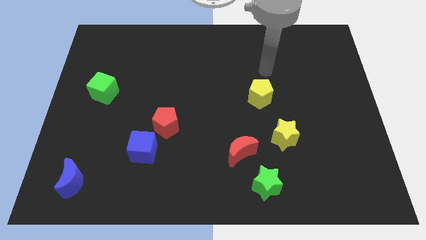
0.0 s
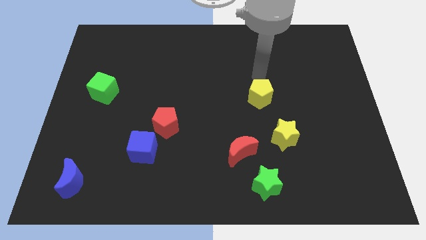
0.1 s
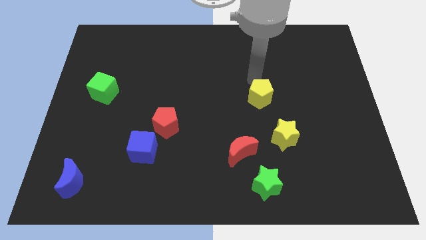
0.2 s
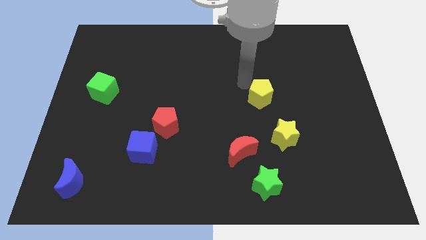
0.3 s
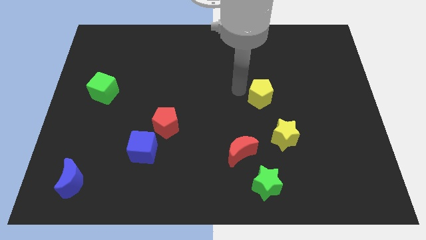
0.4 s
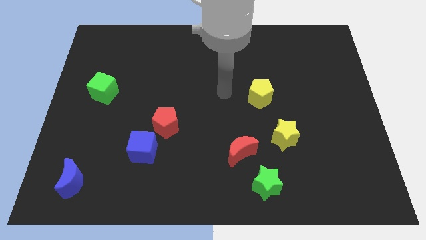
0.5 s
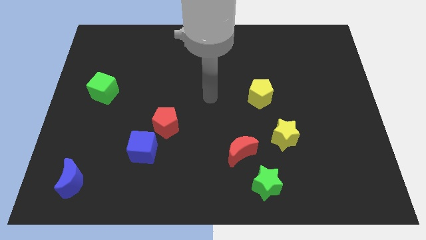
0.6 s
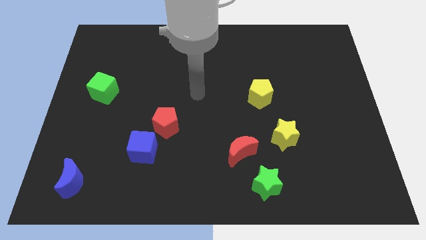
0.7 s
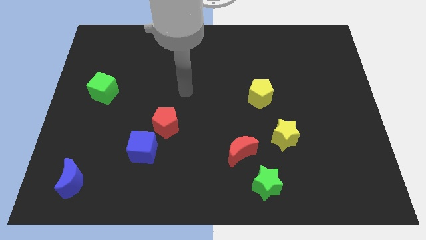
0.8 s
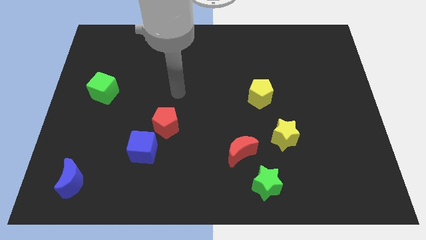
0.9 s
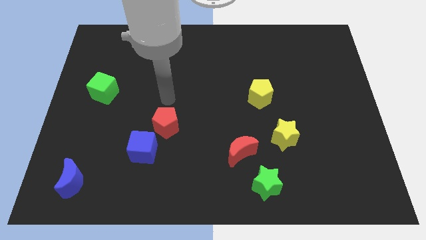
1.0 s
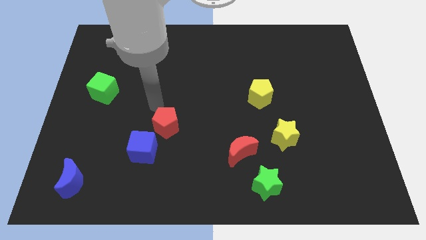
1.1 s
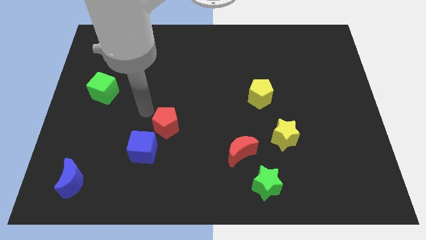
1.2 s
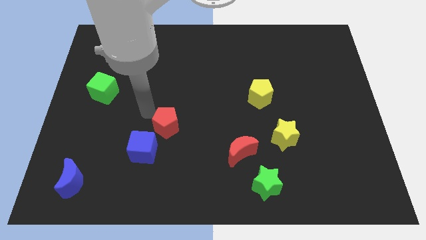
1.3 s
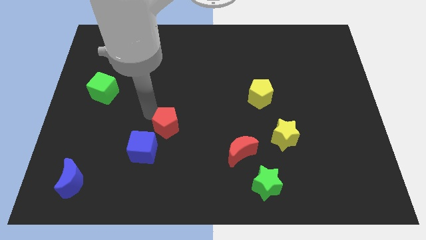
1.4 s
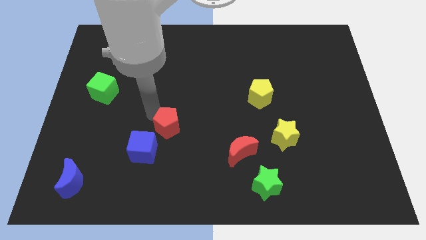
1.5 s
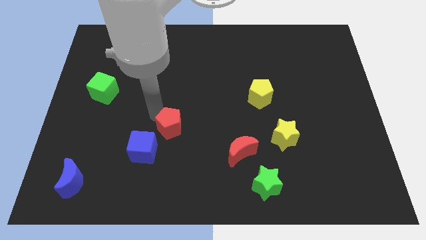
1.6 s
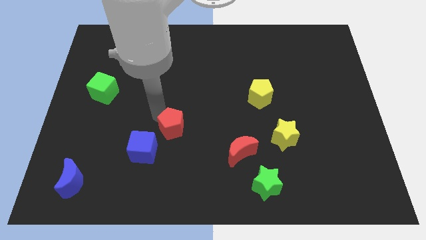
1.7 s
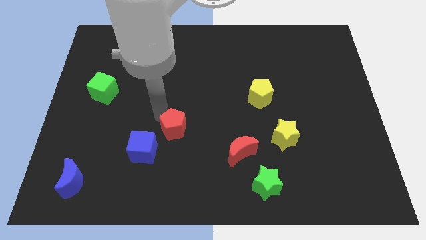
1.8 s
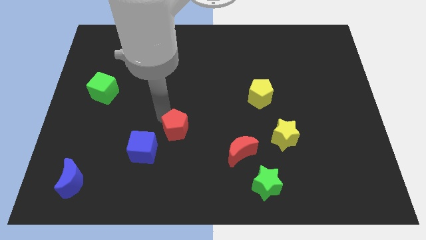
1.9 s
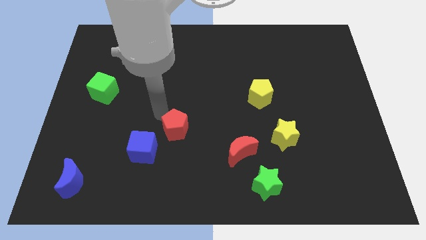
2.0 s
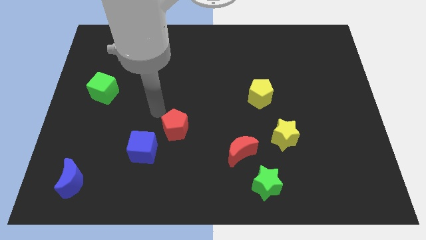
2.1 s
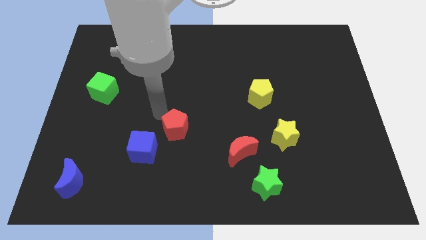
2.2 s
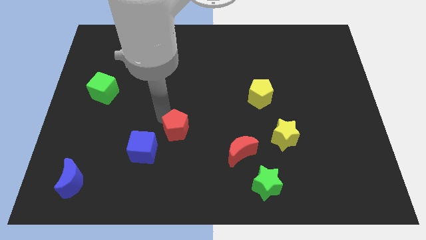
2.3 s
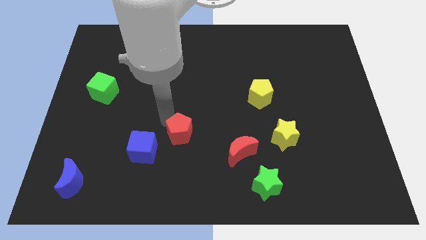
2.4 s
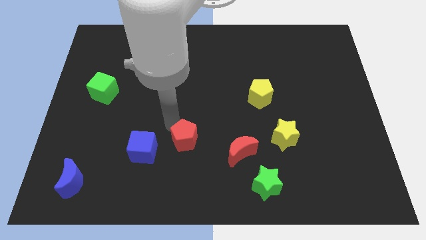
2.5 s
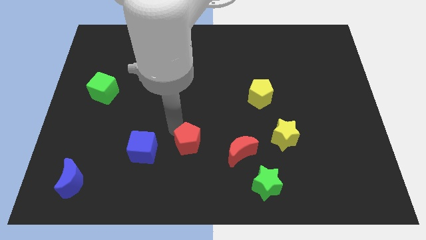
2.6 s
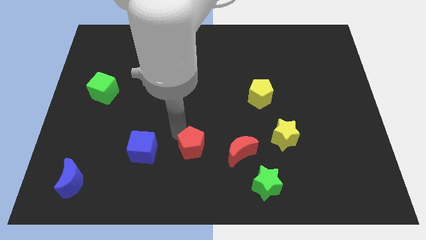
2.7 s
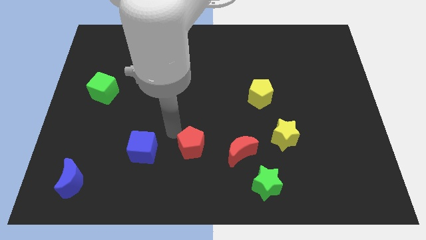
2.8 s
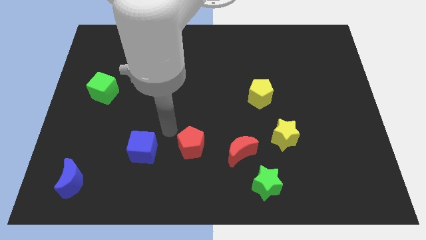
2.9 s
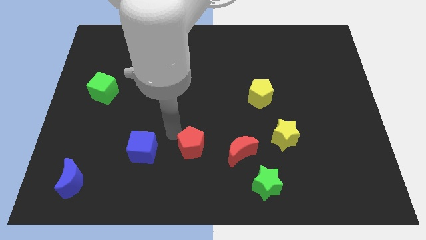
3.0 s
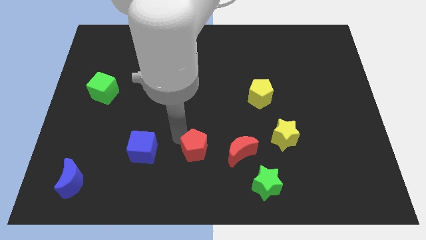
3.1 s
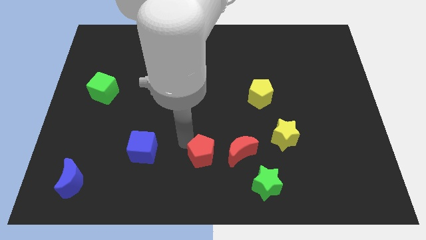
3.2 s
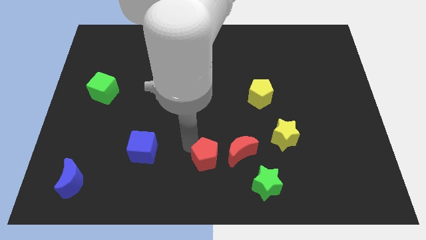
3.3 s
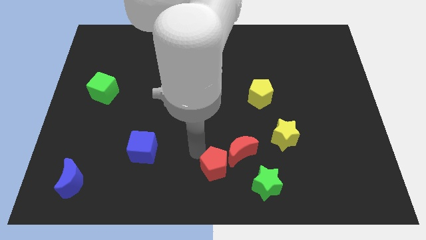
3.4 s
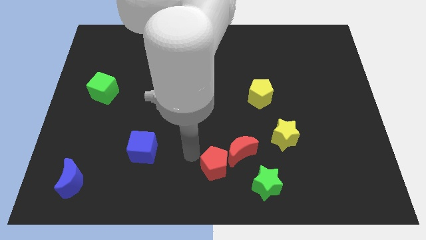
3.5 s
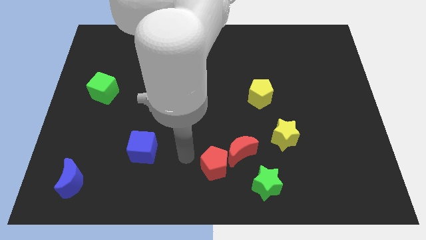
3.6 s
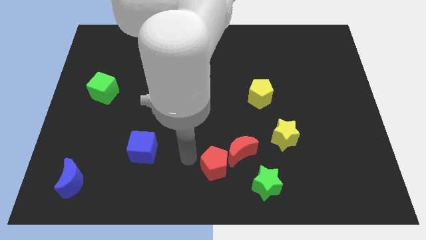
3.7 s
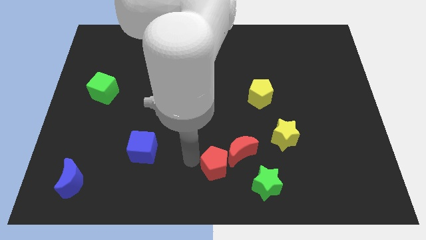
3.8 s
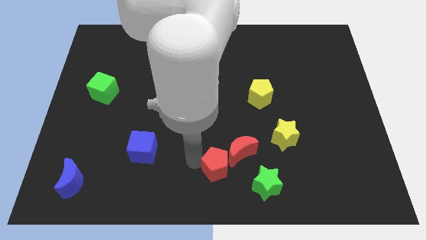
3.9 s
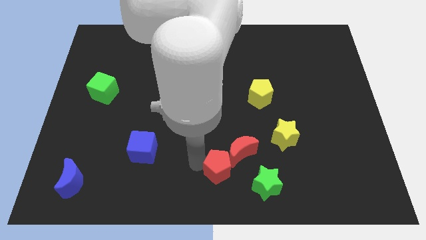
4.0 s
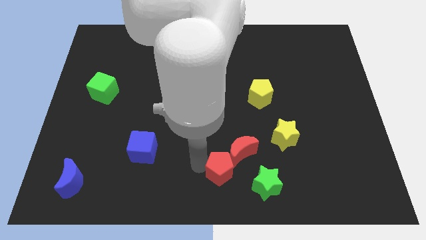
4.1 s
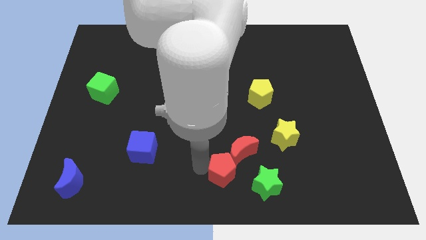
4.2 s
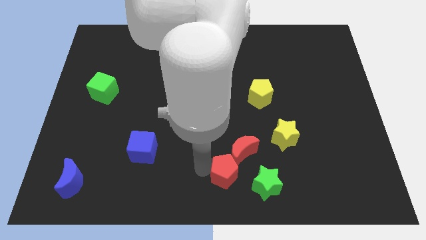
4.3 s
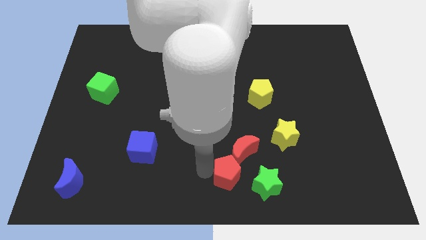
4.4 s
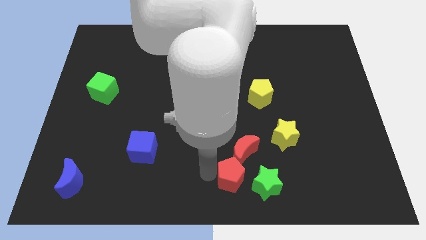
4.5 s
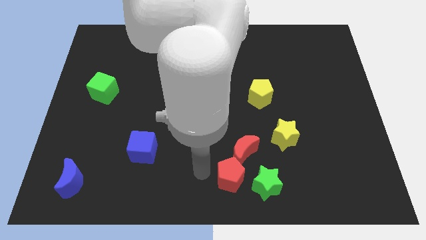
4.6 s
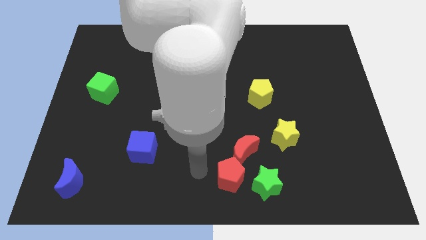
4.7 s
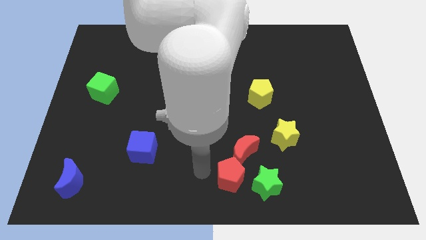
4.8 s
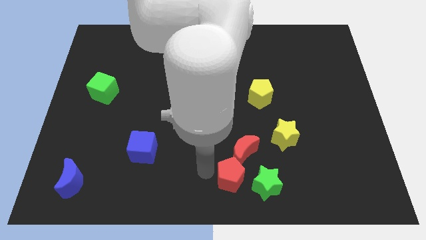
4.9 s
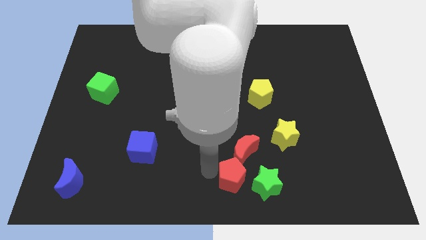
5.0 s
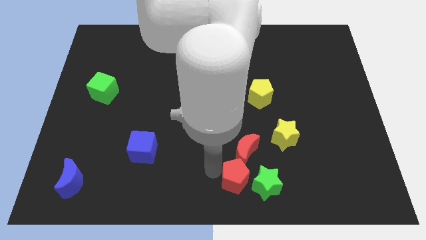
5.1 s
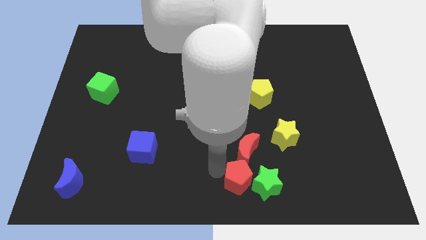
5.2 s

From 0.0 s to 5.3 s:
push the red pentagon next to the green star

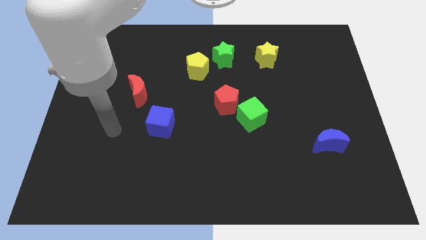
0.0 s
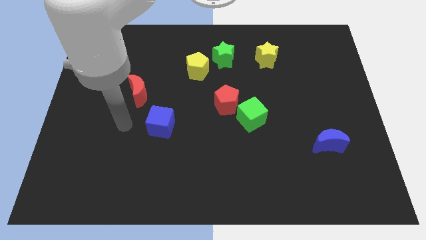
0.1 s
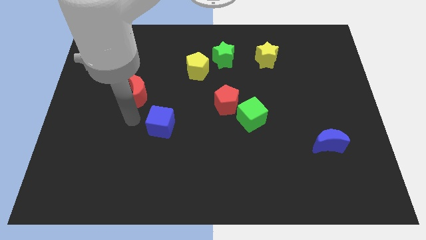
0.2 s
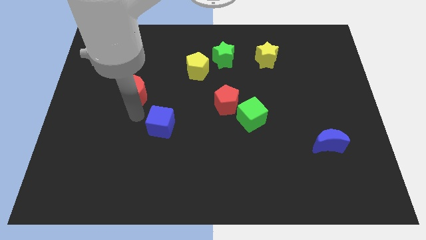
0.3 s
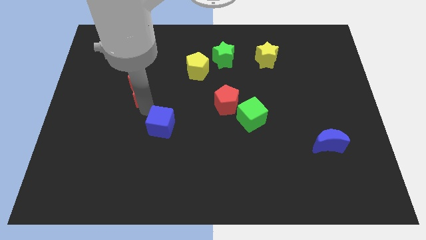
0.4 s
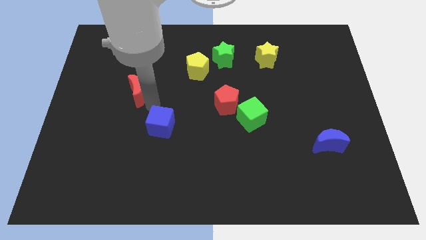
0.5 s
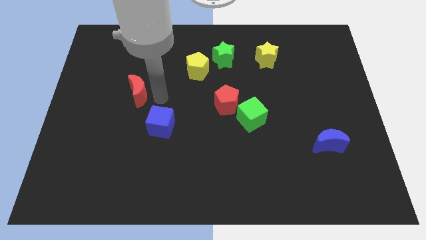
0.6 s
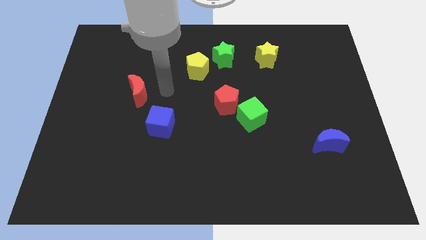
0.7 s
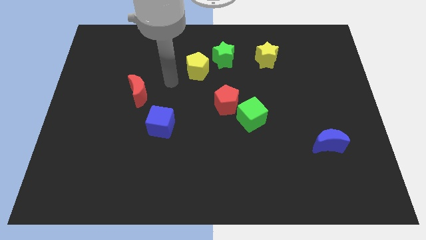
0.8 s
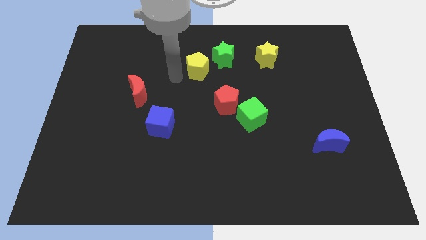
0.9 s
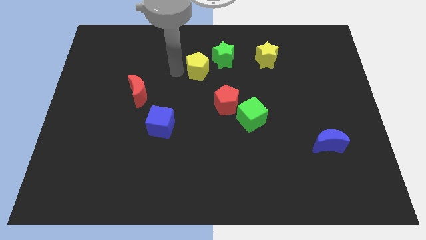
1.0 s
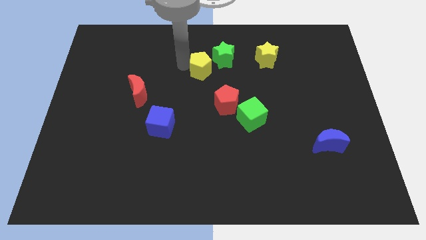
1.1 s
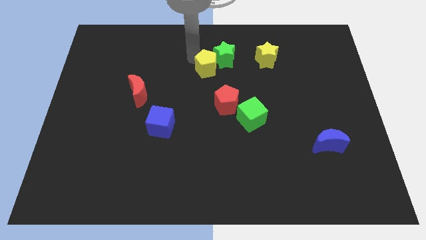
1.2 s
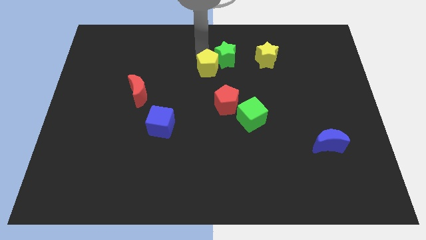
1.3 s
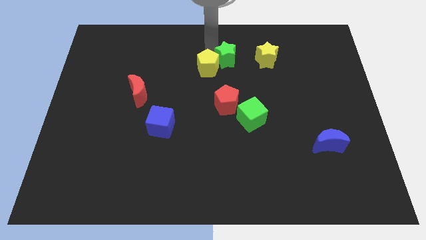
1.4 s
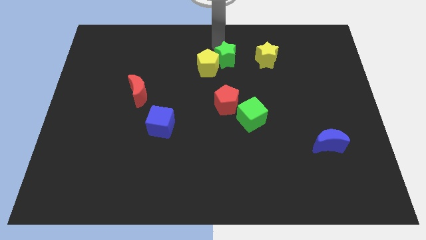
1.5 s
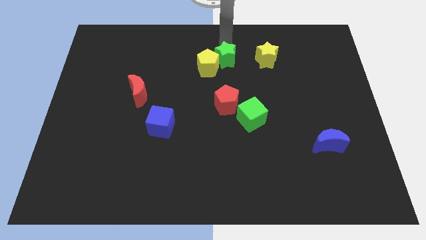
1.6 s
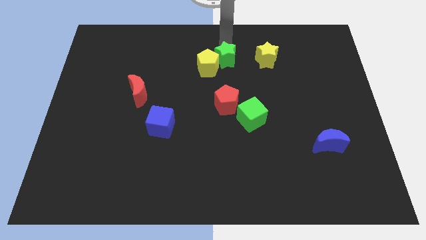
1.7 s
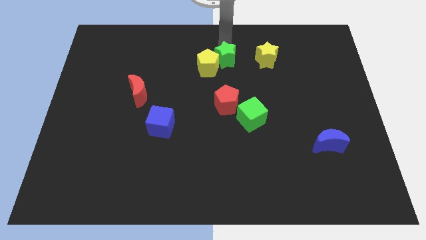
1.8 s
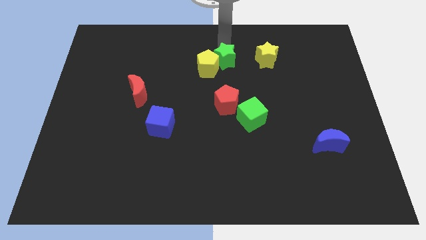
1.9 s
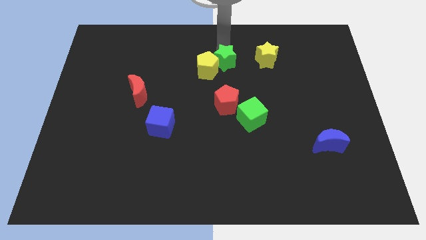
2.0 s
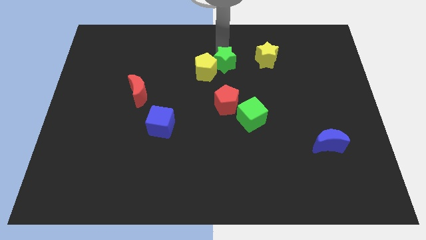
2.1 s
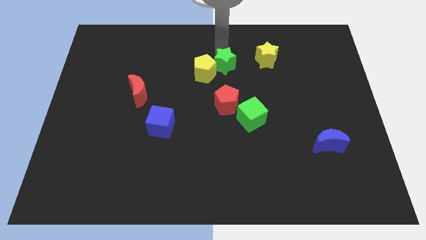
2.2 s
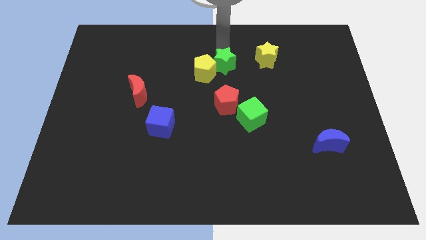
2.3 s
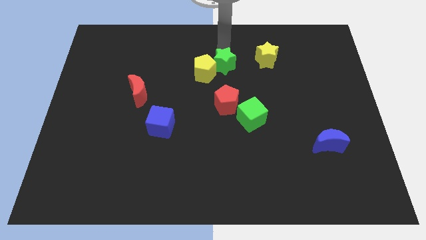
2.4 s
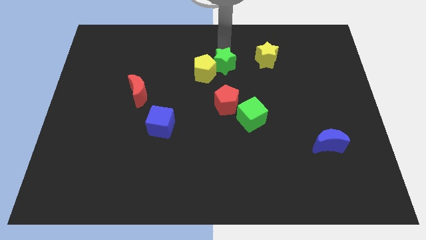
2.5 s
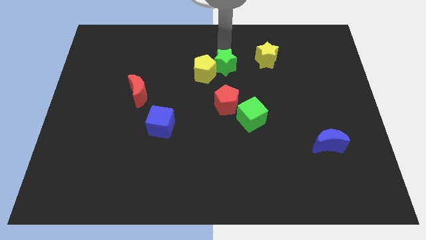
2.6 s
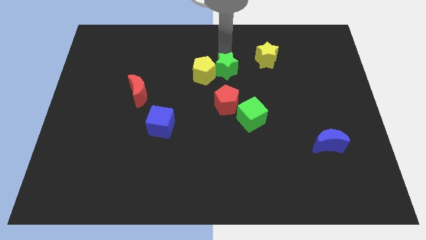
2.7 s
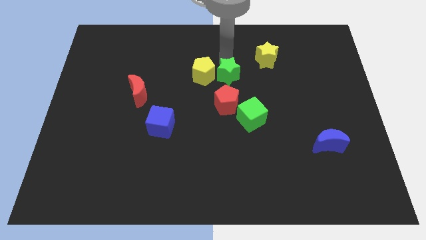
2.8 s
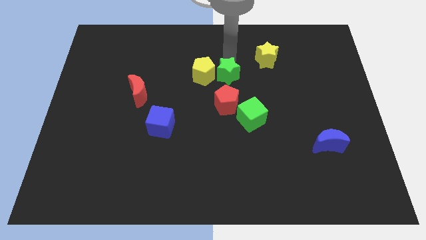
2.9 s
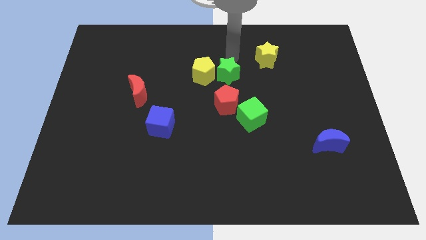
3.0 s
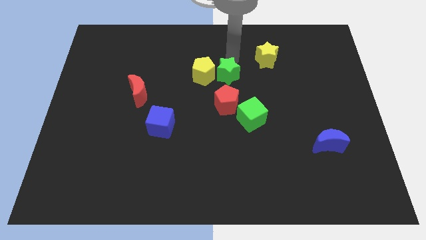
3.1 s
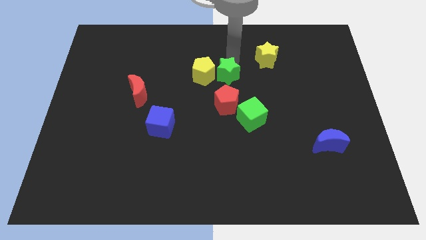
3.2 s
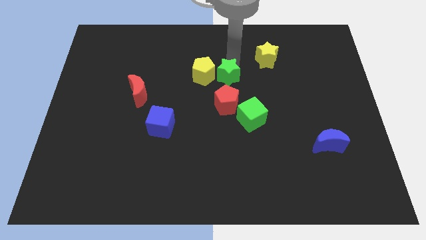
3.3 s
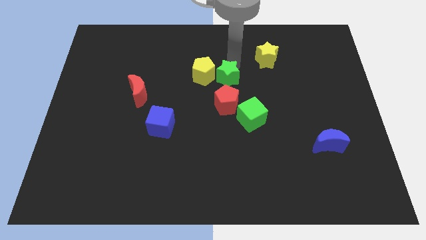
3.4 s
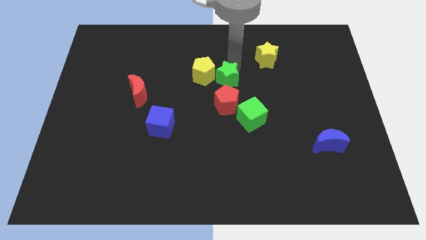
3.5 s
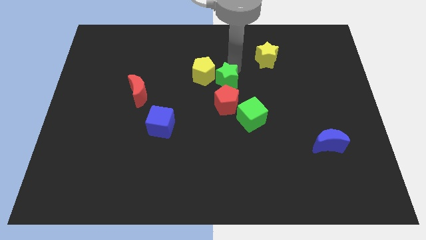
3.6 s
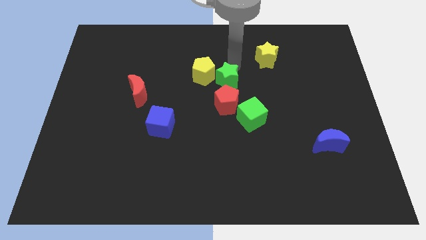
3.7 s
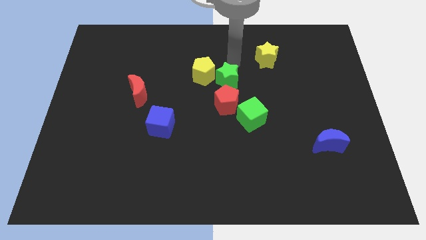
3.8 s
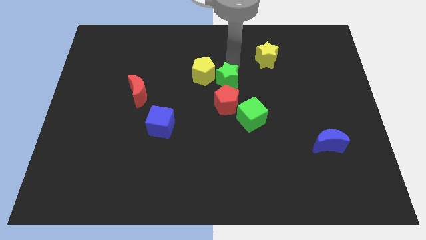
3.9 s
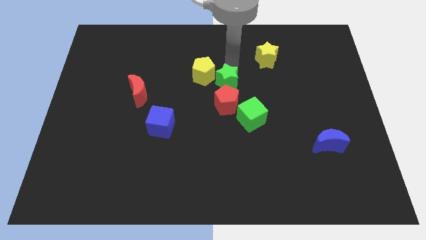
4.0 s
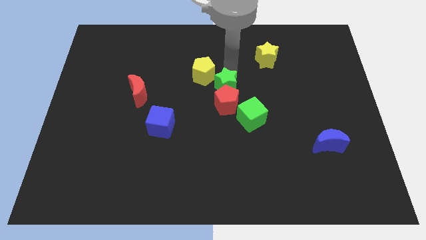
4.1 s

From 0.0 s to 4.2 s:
push the green star next to the red pentagon
